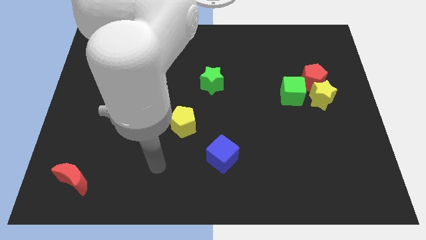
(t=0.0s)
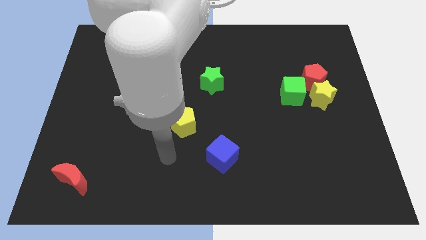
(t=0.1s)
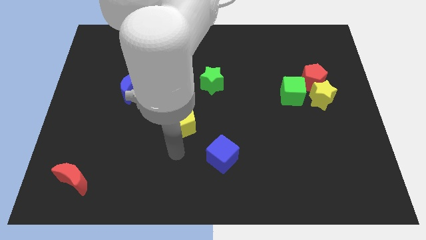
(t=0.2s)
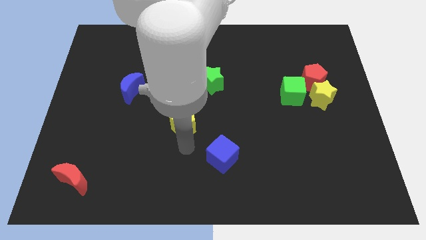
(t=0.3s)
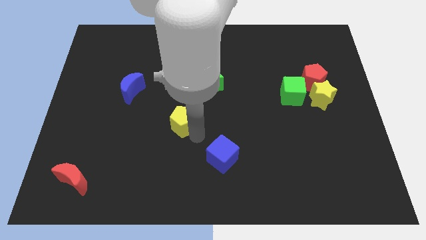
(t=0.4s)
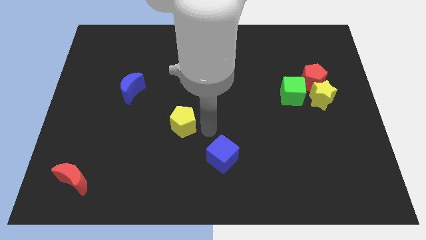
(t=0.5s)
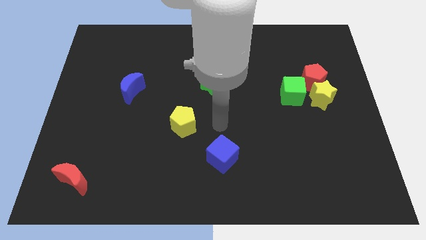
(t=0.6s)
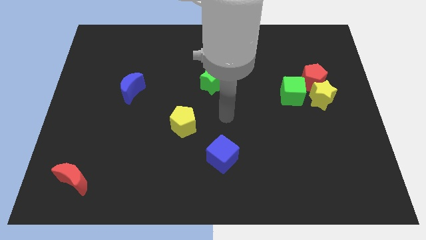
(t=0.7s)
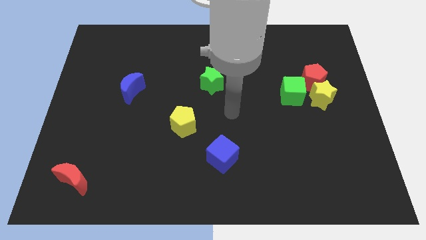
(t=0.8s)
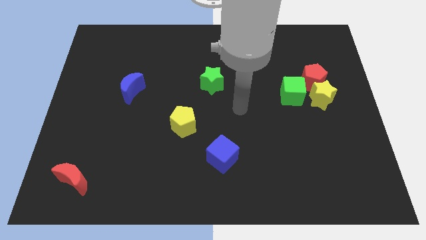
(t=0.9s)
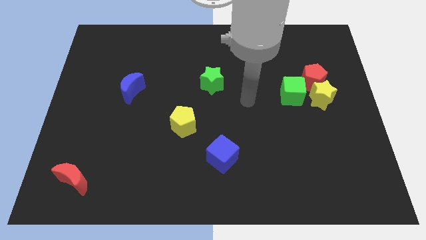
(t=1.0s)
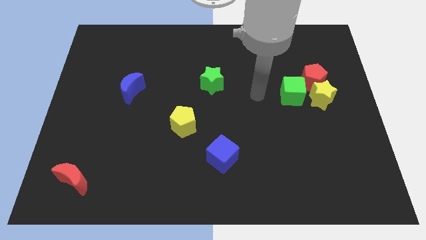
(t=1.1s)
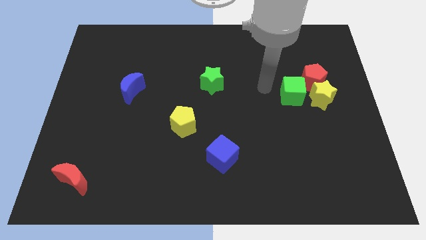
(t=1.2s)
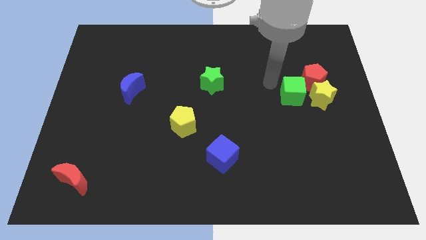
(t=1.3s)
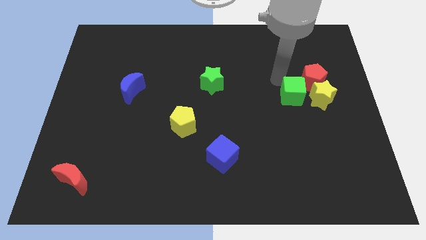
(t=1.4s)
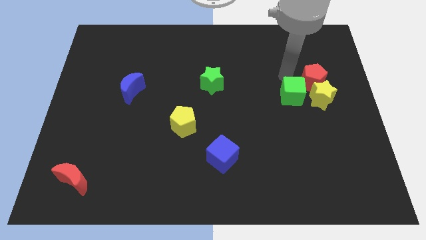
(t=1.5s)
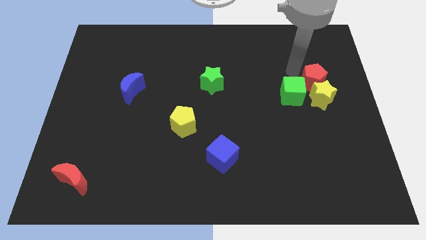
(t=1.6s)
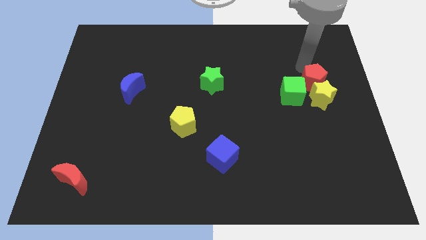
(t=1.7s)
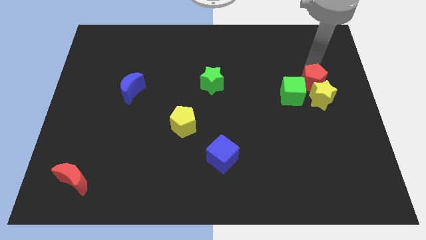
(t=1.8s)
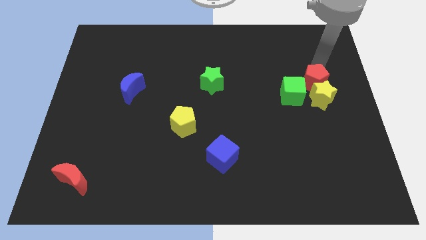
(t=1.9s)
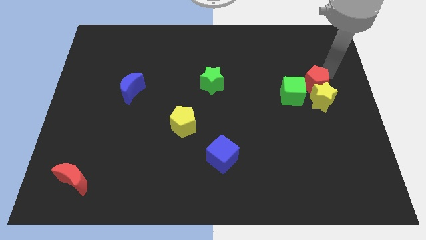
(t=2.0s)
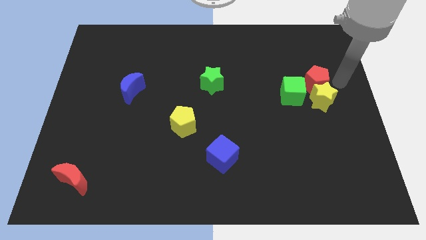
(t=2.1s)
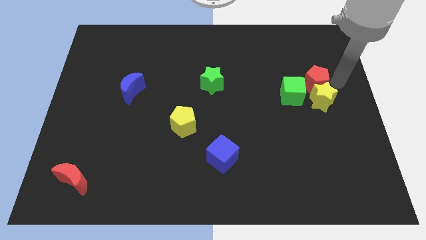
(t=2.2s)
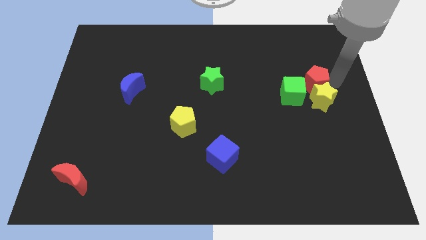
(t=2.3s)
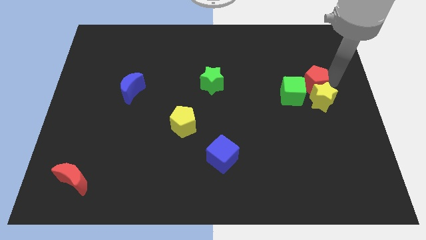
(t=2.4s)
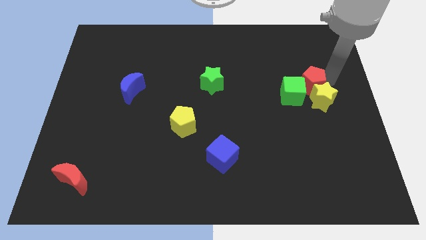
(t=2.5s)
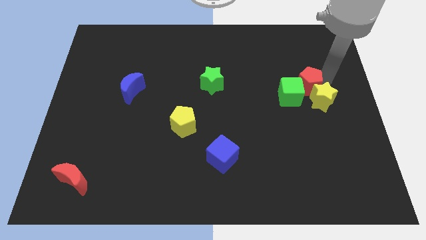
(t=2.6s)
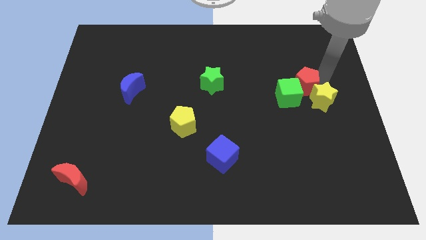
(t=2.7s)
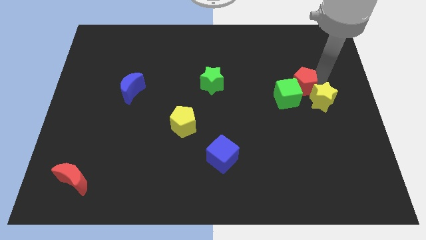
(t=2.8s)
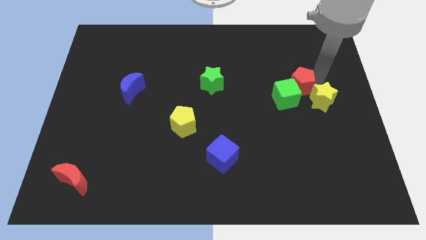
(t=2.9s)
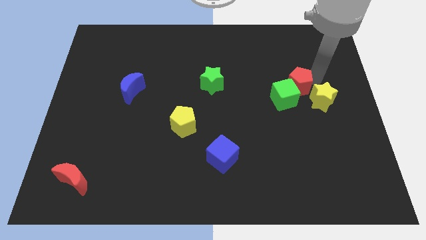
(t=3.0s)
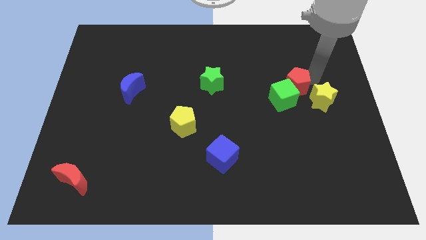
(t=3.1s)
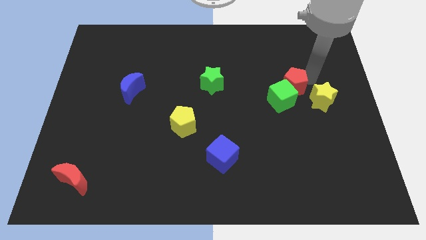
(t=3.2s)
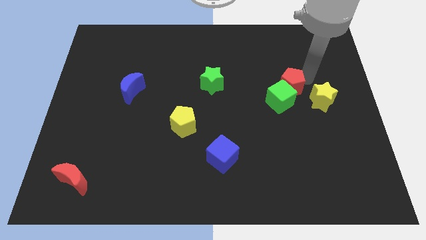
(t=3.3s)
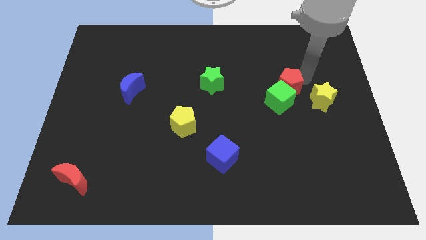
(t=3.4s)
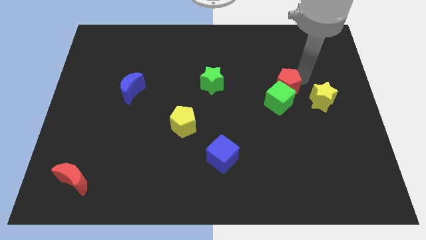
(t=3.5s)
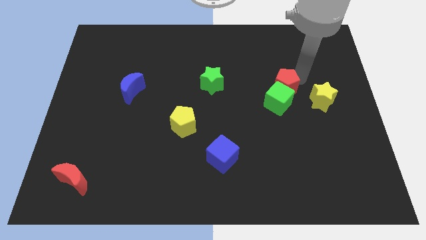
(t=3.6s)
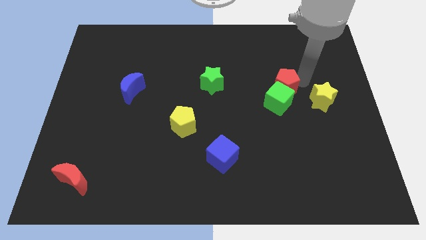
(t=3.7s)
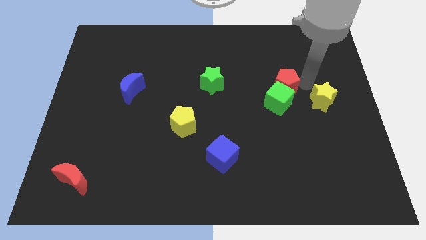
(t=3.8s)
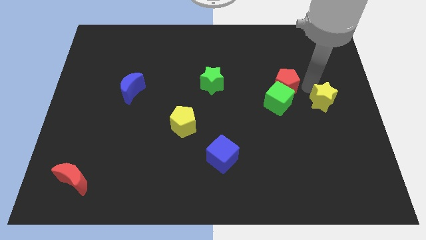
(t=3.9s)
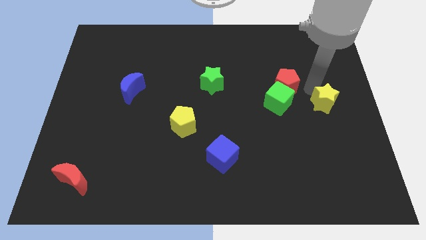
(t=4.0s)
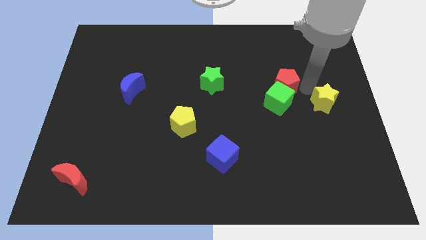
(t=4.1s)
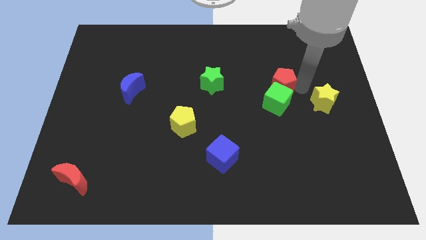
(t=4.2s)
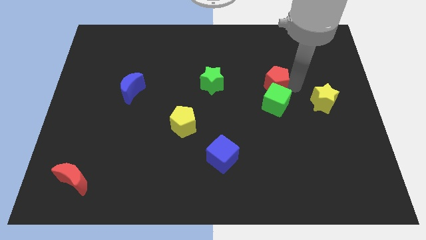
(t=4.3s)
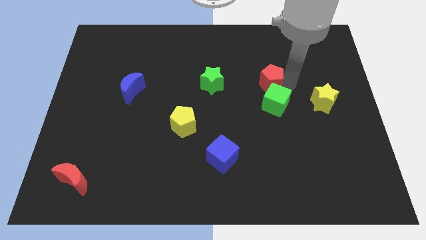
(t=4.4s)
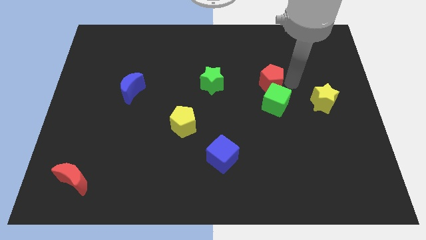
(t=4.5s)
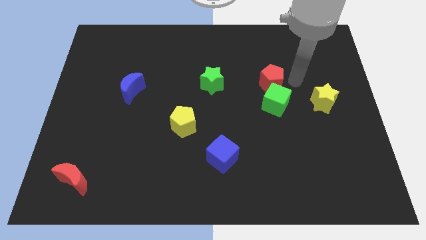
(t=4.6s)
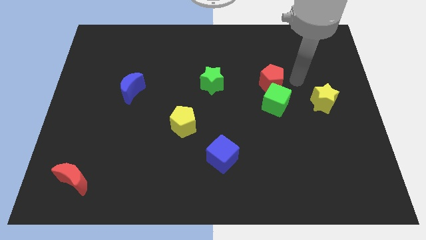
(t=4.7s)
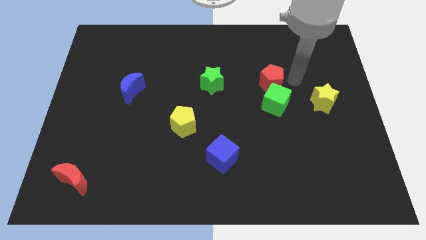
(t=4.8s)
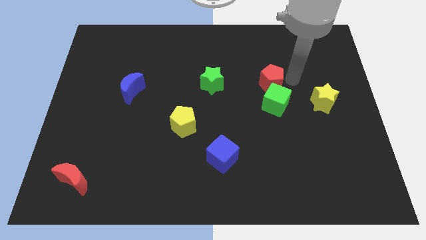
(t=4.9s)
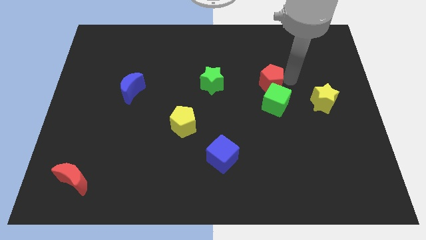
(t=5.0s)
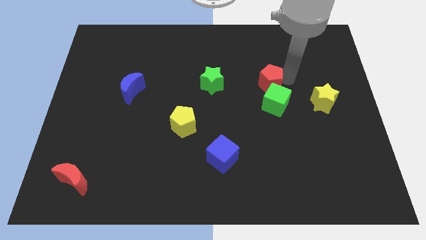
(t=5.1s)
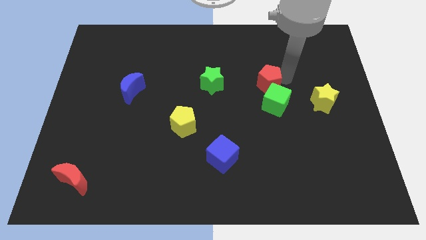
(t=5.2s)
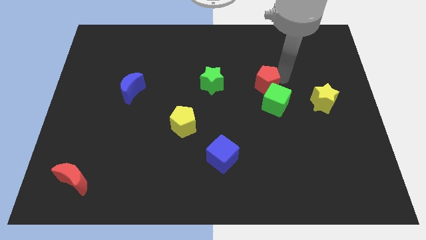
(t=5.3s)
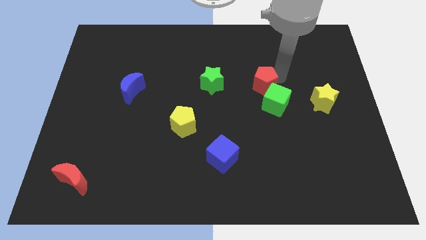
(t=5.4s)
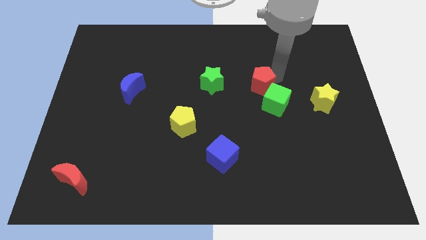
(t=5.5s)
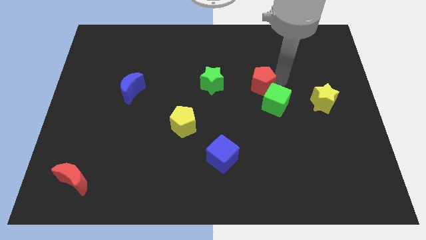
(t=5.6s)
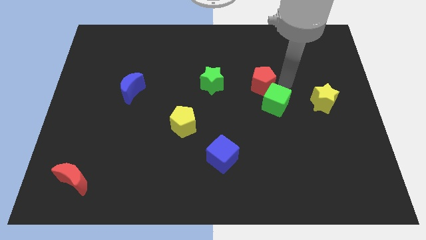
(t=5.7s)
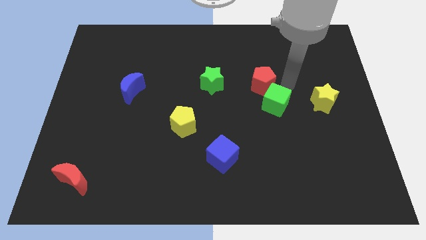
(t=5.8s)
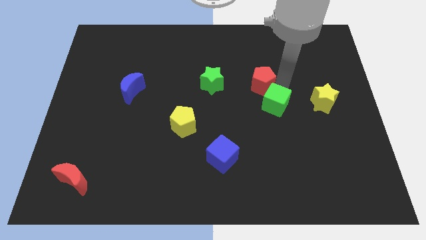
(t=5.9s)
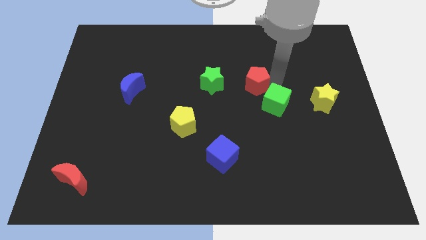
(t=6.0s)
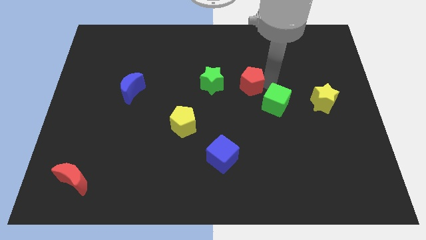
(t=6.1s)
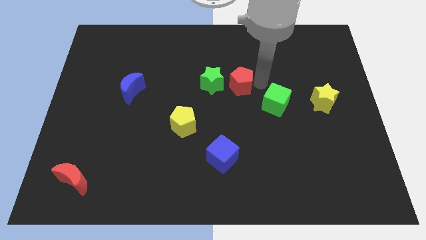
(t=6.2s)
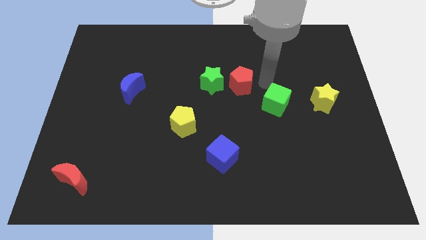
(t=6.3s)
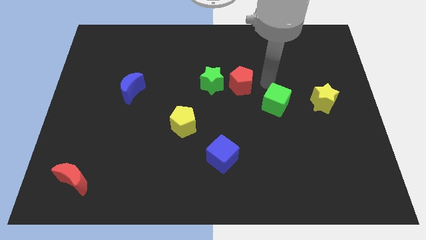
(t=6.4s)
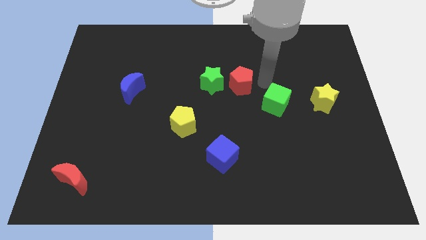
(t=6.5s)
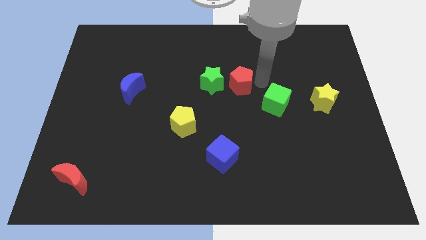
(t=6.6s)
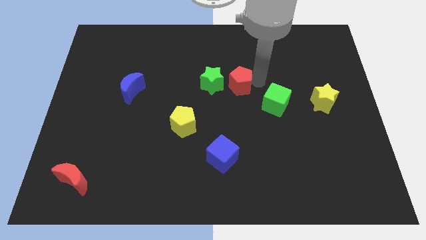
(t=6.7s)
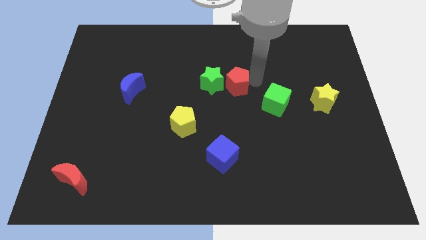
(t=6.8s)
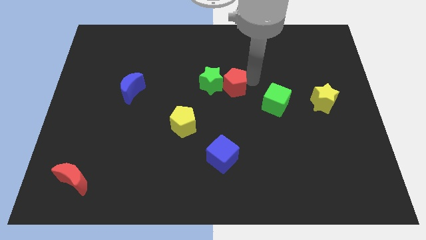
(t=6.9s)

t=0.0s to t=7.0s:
slide the red pentagon next to the green star
